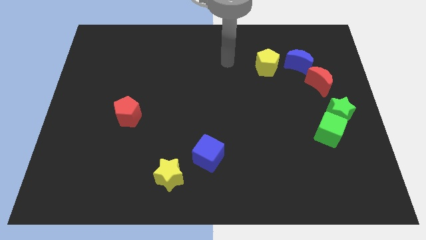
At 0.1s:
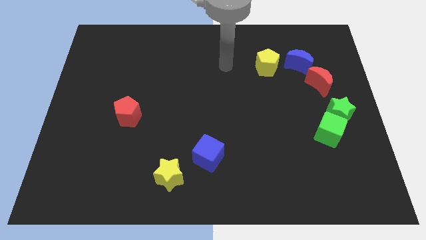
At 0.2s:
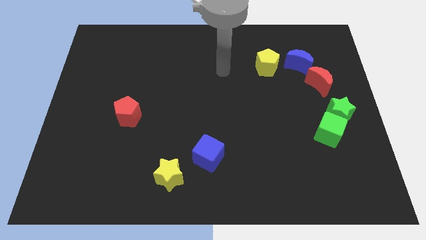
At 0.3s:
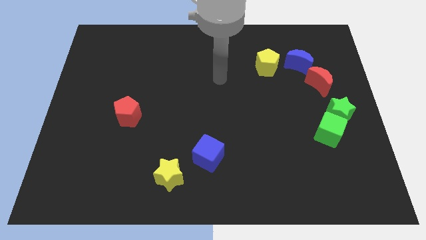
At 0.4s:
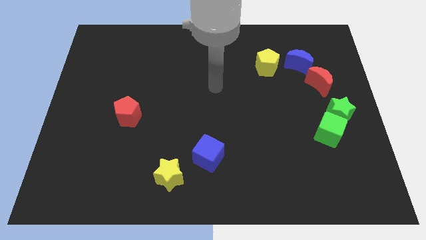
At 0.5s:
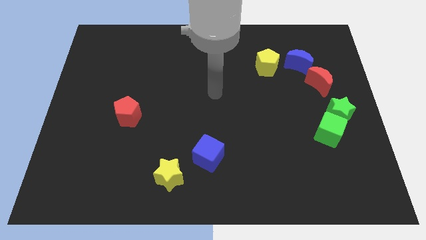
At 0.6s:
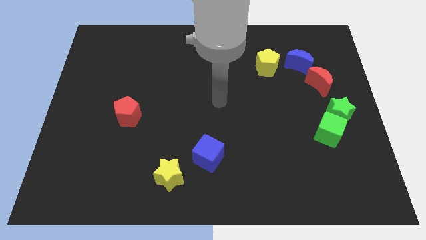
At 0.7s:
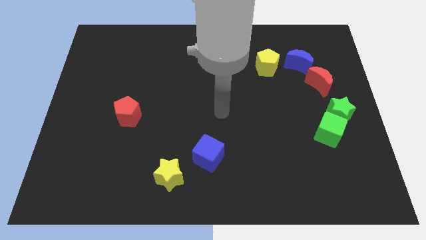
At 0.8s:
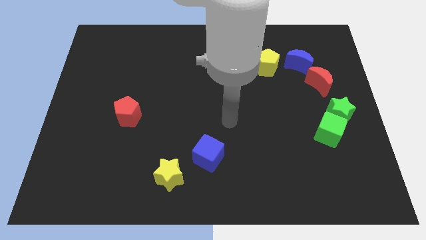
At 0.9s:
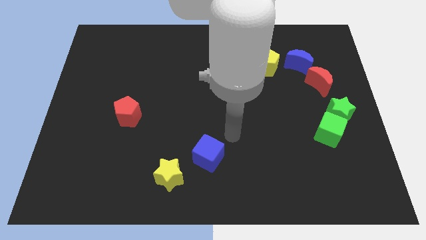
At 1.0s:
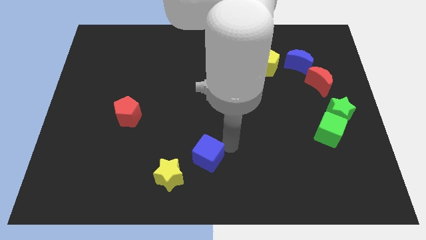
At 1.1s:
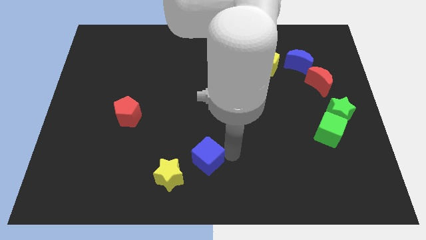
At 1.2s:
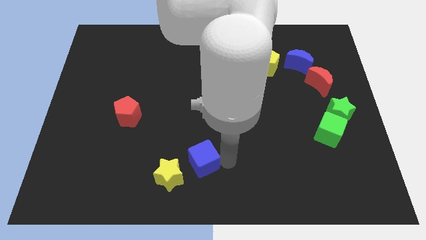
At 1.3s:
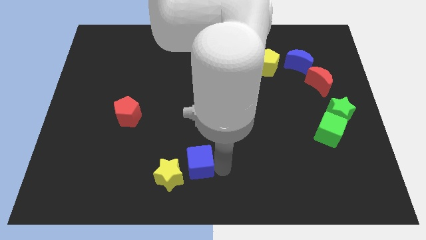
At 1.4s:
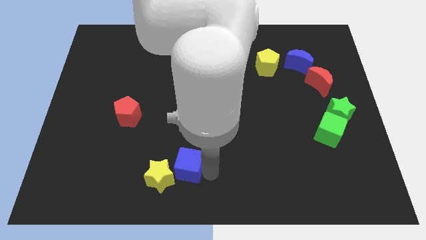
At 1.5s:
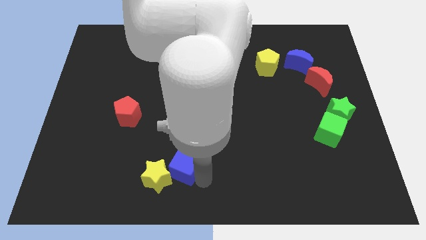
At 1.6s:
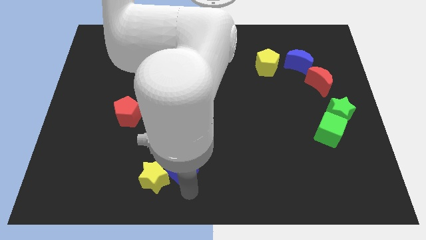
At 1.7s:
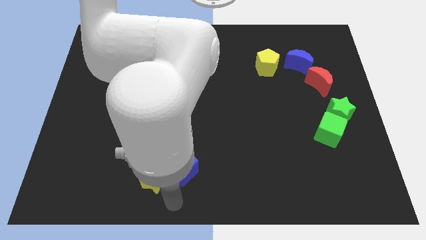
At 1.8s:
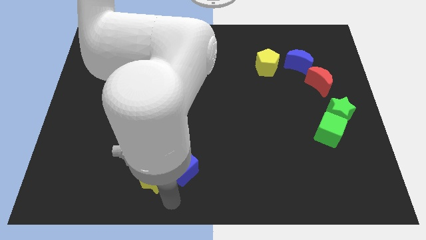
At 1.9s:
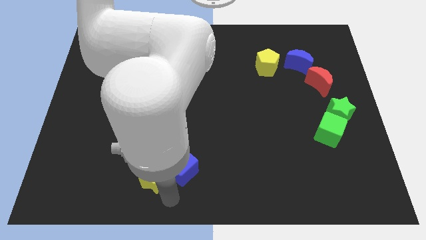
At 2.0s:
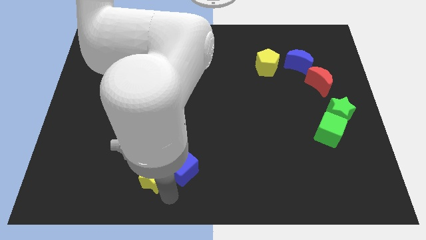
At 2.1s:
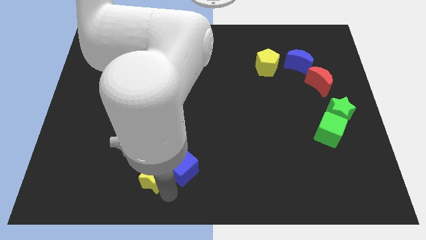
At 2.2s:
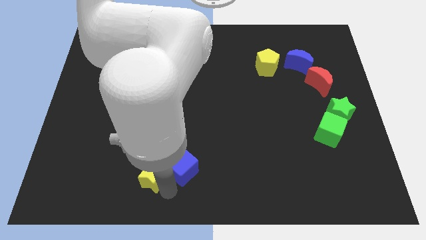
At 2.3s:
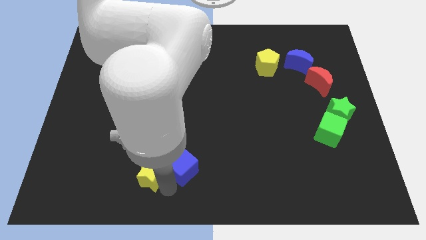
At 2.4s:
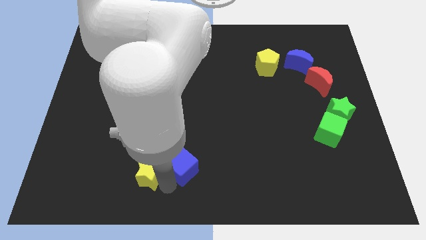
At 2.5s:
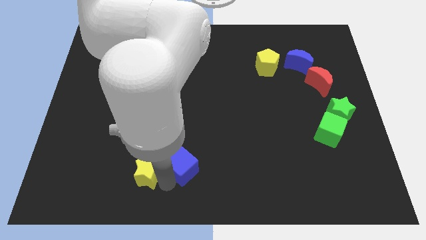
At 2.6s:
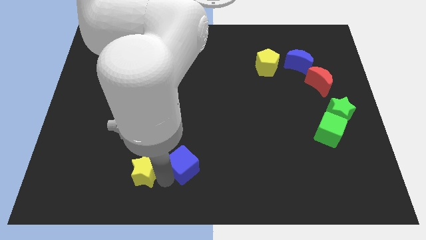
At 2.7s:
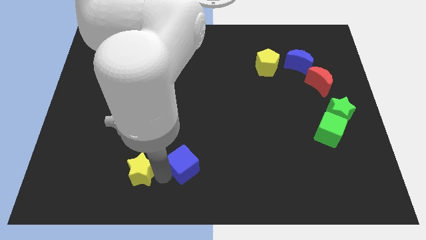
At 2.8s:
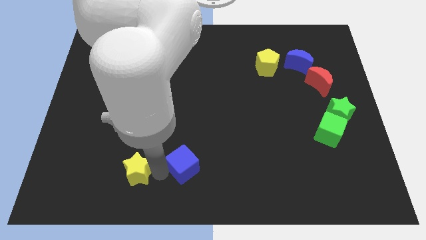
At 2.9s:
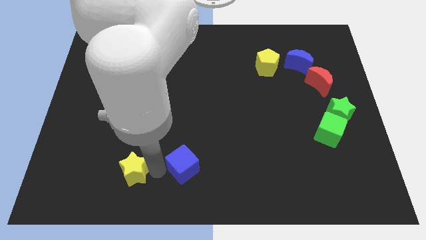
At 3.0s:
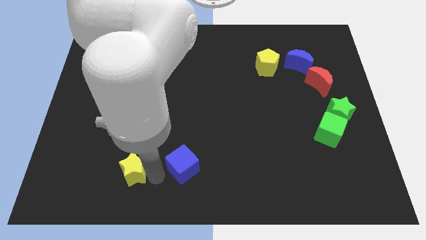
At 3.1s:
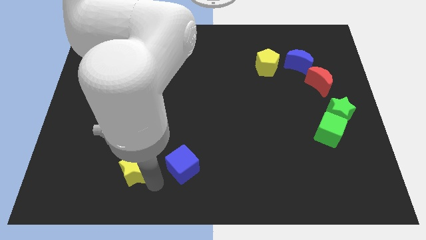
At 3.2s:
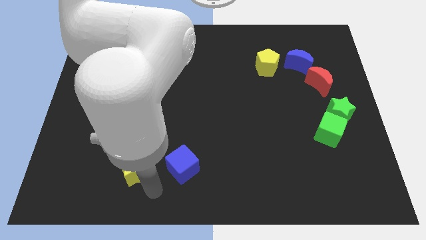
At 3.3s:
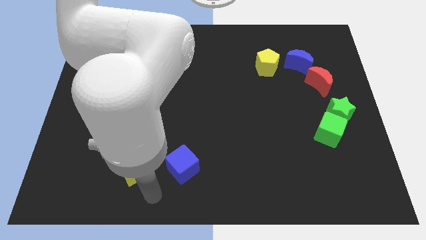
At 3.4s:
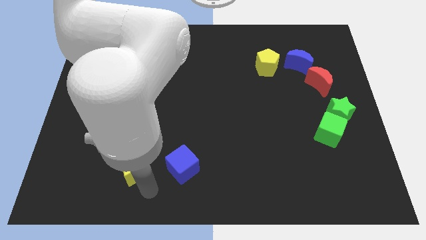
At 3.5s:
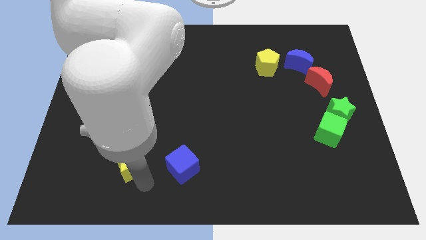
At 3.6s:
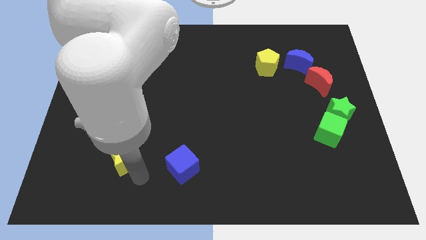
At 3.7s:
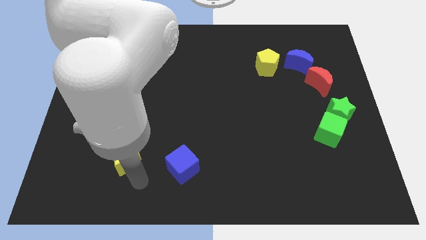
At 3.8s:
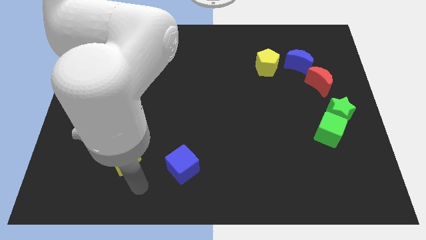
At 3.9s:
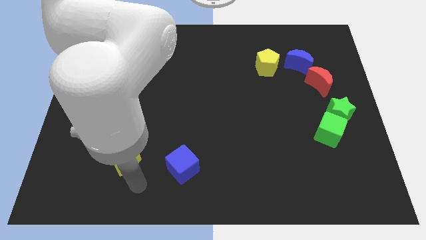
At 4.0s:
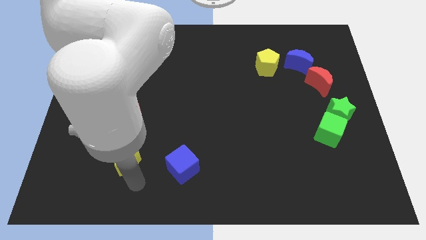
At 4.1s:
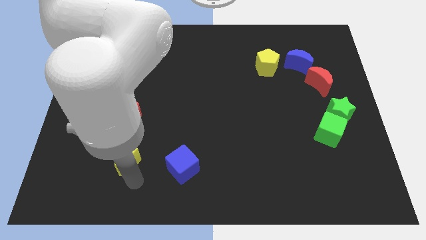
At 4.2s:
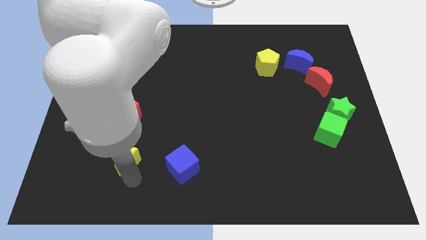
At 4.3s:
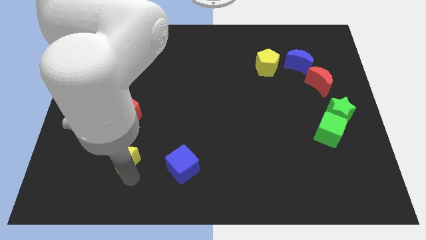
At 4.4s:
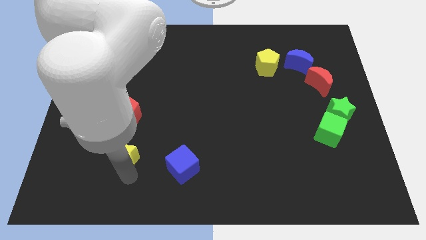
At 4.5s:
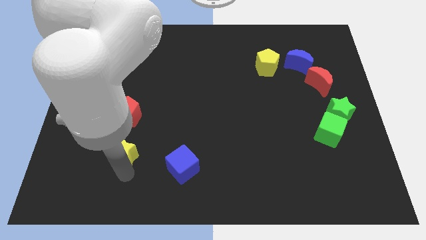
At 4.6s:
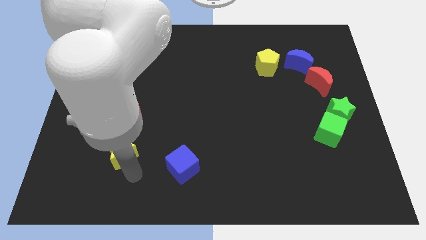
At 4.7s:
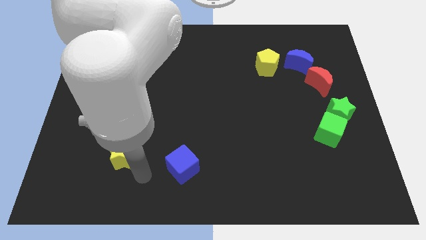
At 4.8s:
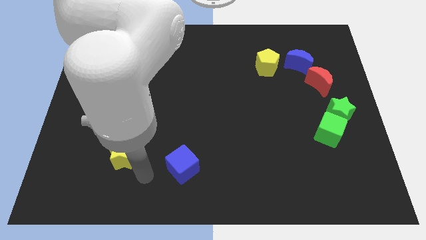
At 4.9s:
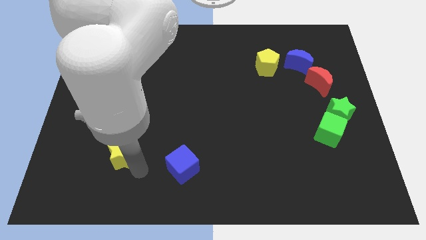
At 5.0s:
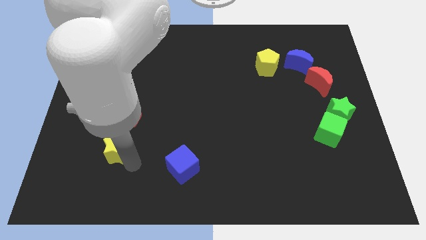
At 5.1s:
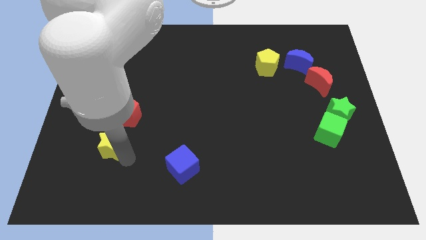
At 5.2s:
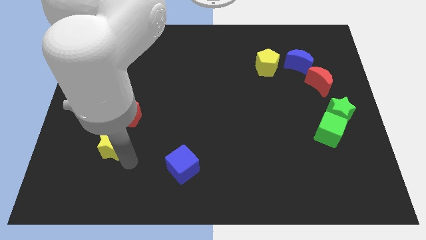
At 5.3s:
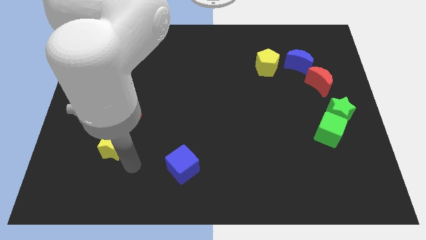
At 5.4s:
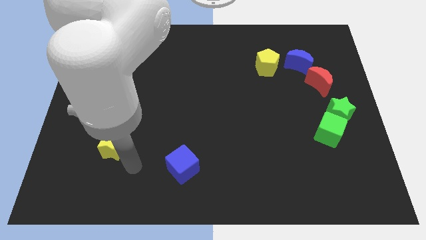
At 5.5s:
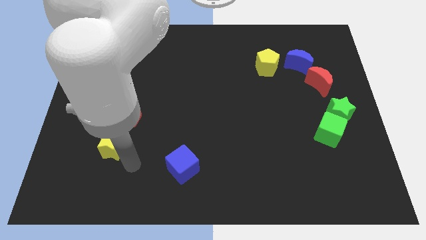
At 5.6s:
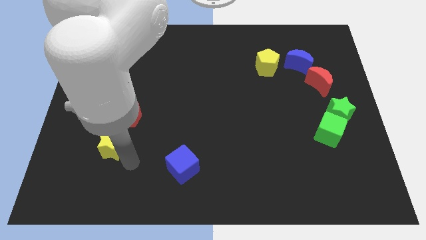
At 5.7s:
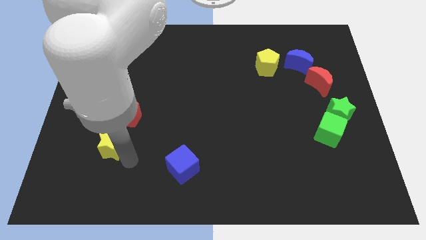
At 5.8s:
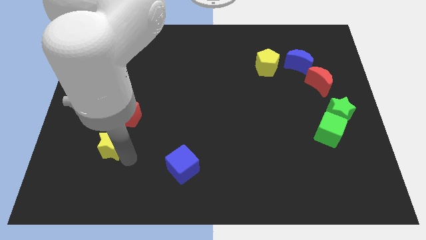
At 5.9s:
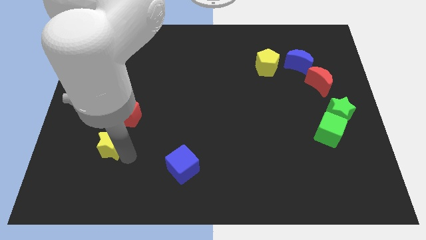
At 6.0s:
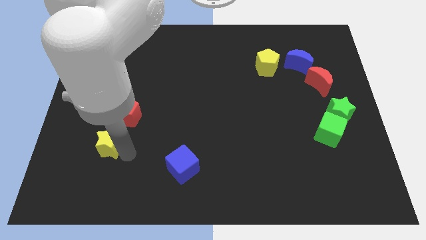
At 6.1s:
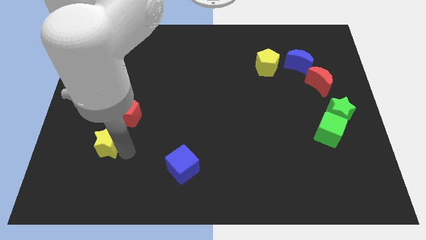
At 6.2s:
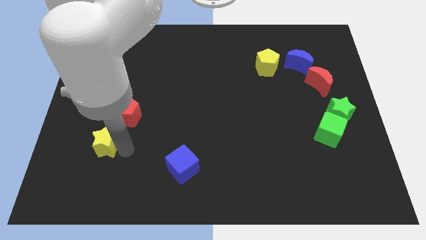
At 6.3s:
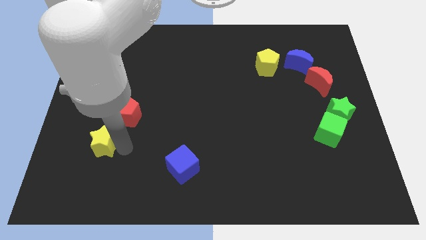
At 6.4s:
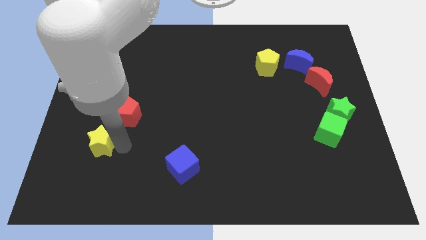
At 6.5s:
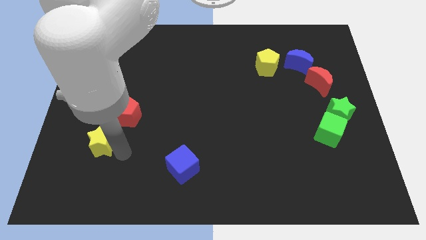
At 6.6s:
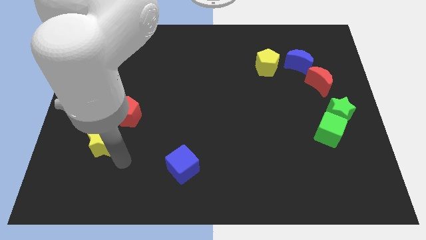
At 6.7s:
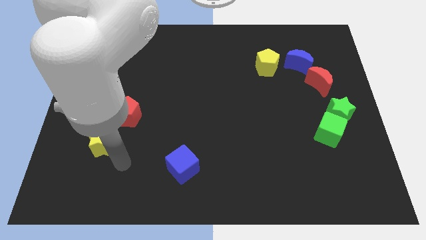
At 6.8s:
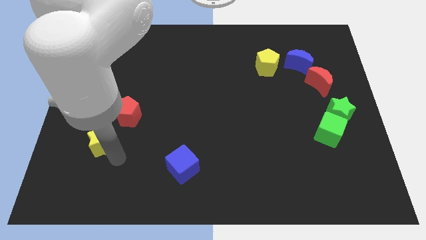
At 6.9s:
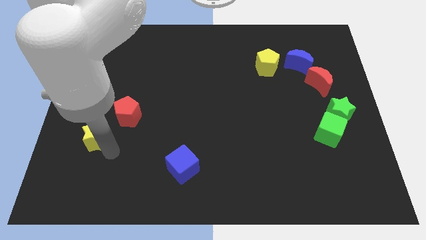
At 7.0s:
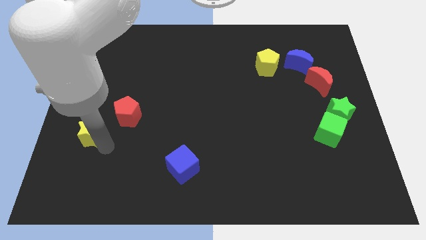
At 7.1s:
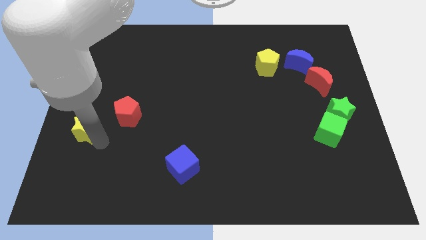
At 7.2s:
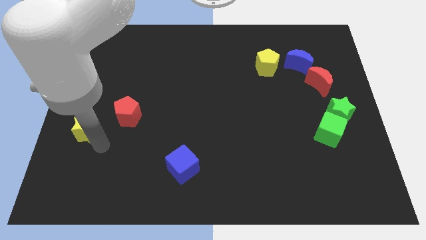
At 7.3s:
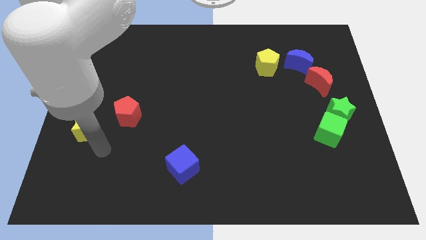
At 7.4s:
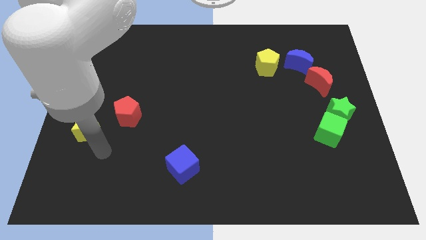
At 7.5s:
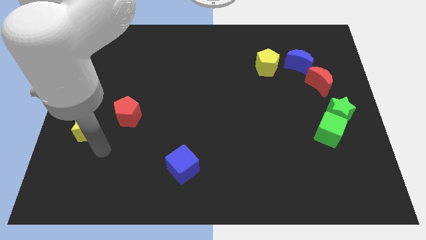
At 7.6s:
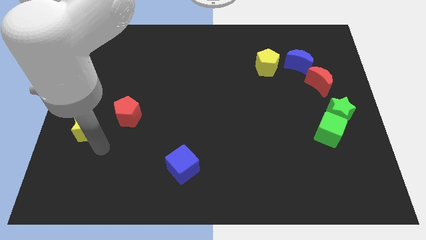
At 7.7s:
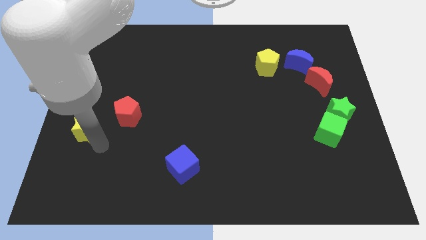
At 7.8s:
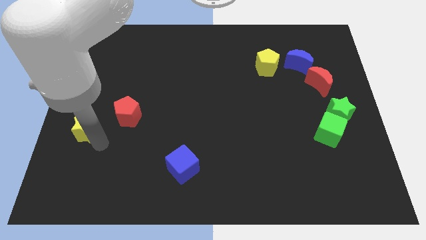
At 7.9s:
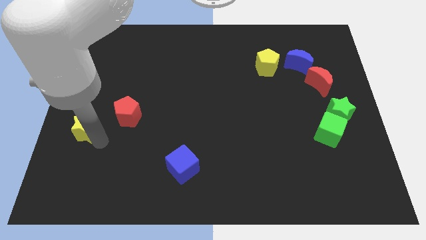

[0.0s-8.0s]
put the yellow star to the left side of the board
